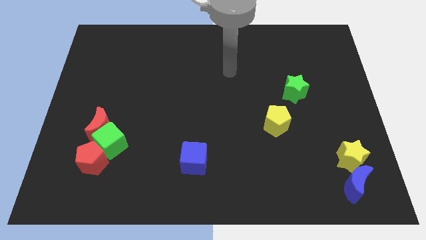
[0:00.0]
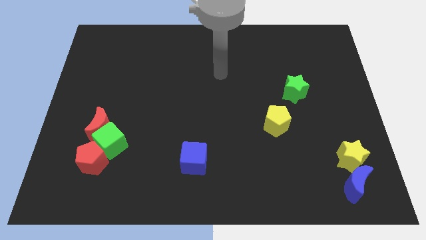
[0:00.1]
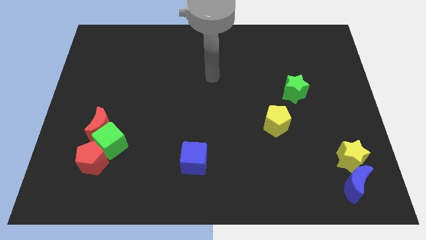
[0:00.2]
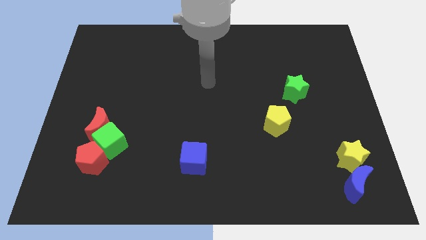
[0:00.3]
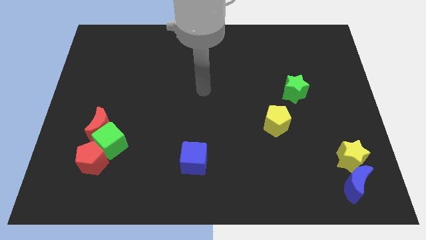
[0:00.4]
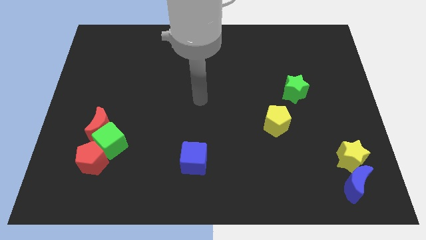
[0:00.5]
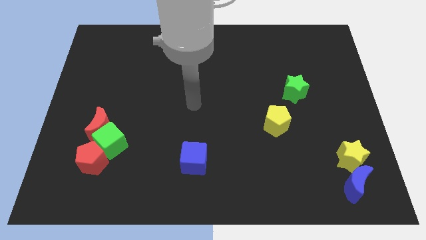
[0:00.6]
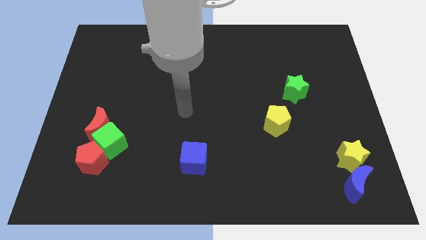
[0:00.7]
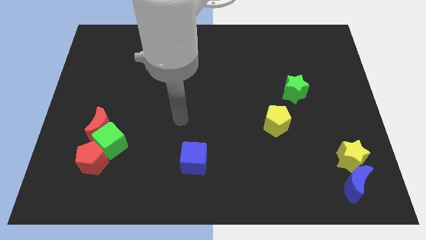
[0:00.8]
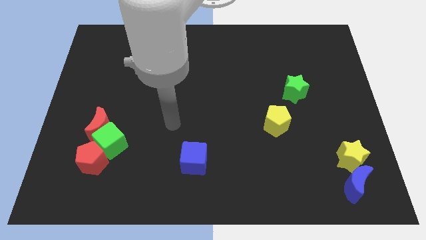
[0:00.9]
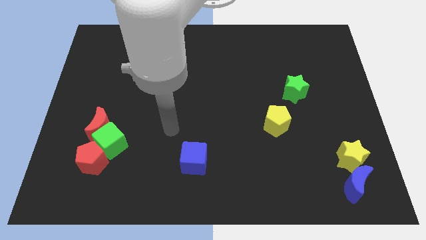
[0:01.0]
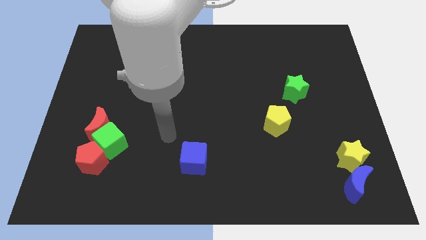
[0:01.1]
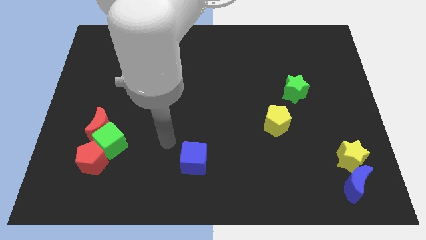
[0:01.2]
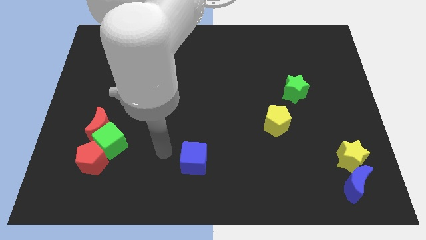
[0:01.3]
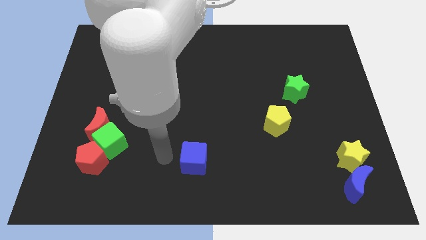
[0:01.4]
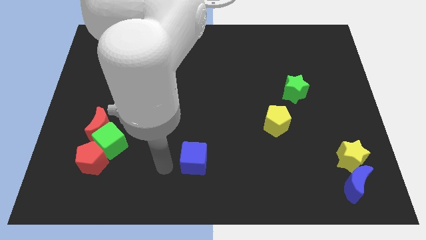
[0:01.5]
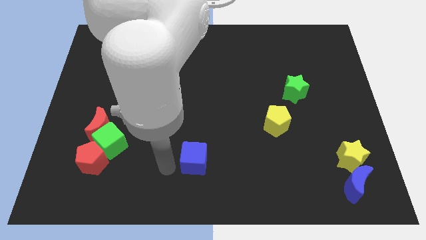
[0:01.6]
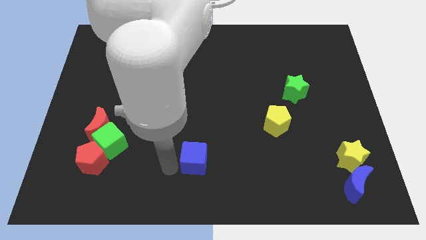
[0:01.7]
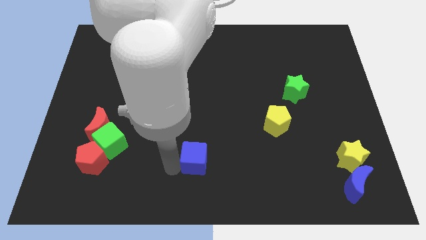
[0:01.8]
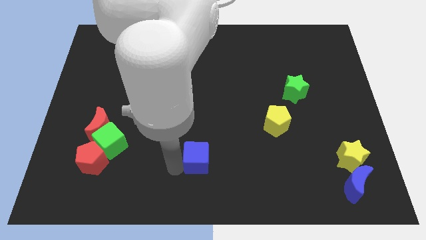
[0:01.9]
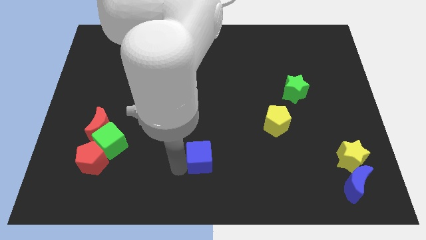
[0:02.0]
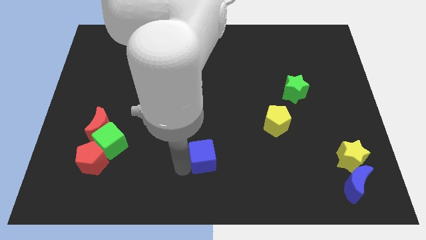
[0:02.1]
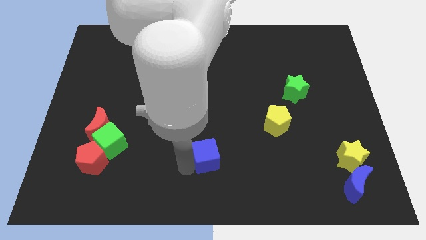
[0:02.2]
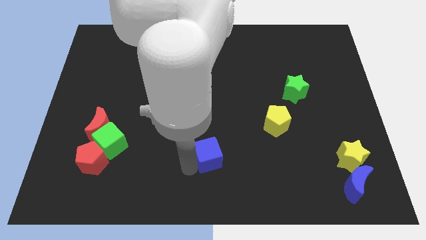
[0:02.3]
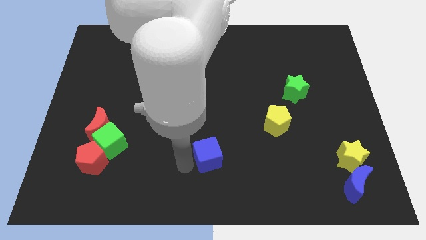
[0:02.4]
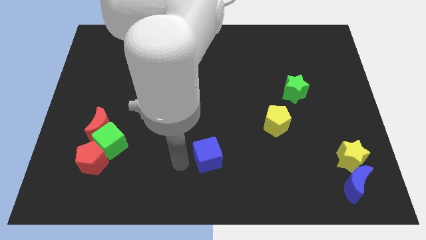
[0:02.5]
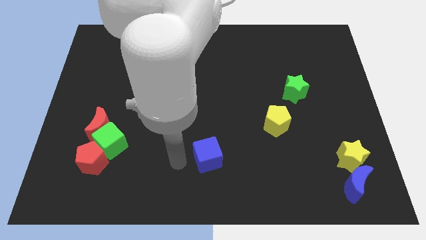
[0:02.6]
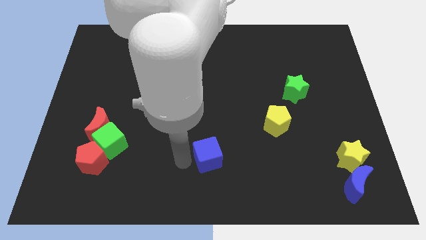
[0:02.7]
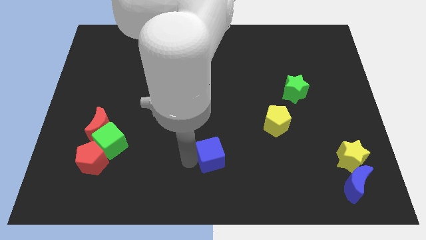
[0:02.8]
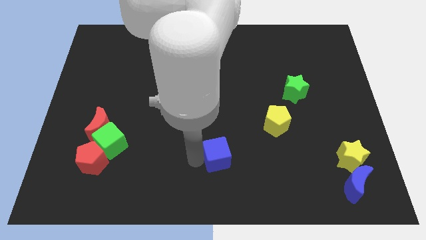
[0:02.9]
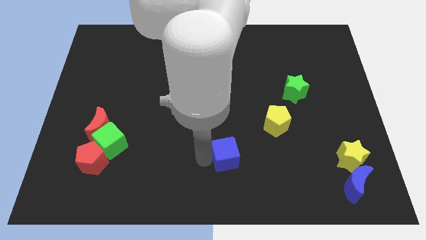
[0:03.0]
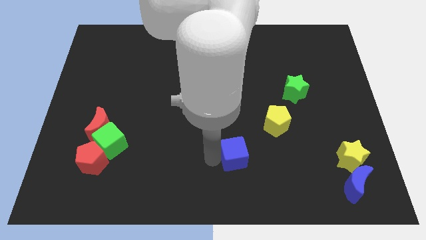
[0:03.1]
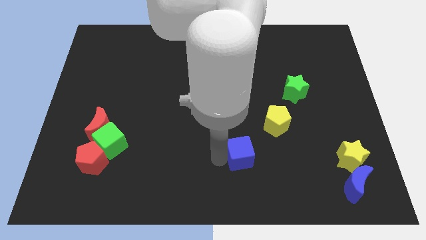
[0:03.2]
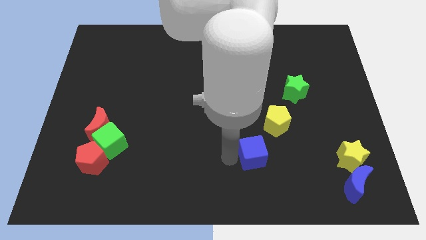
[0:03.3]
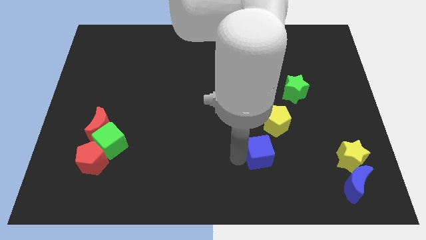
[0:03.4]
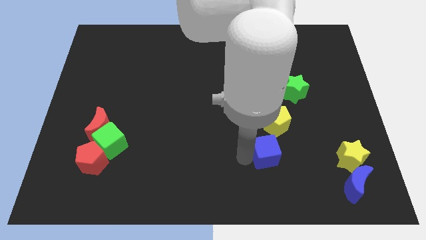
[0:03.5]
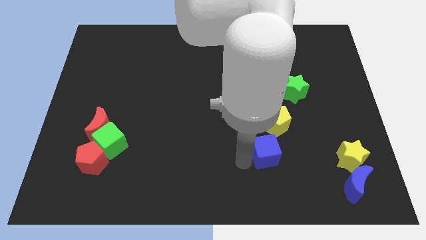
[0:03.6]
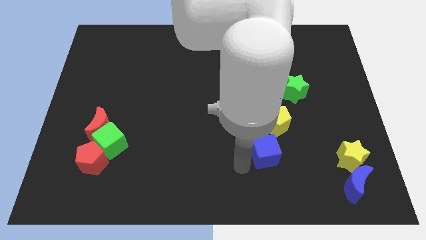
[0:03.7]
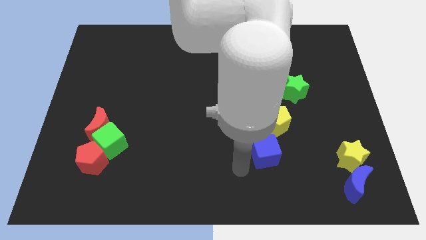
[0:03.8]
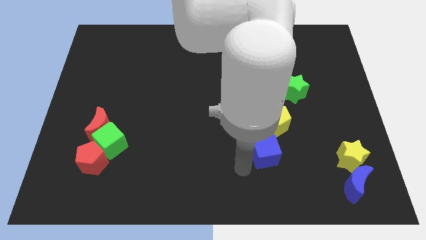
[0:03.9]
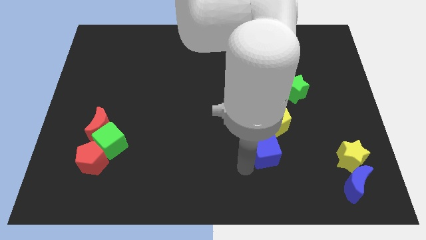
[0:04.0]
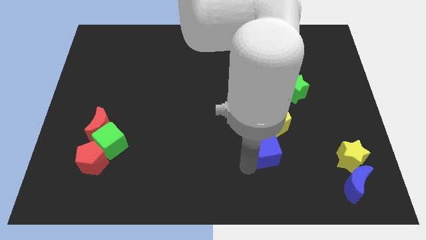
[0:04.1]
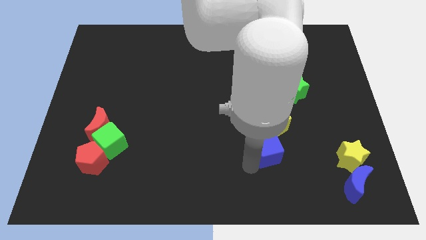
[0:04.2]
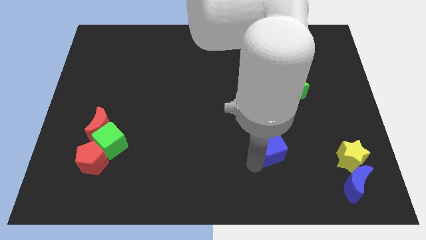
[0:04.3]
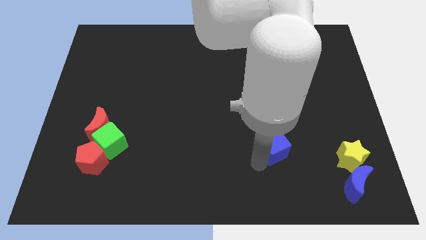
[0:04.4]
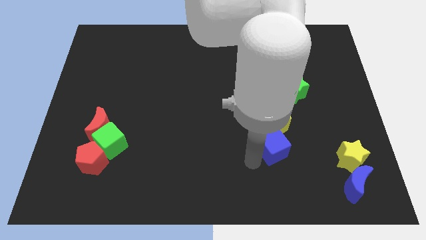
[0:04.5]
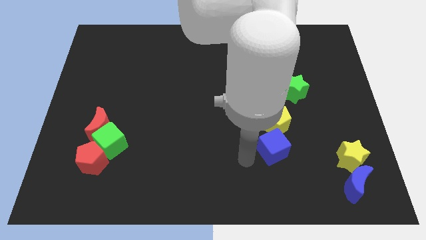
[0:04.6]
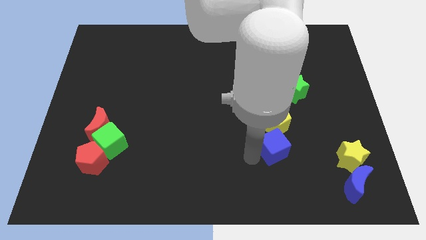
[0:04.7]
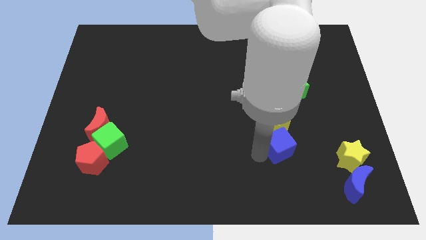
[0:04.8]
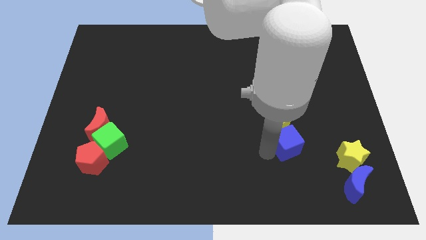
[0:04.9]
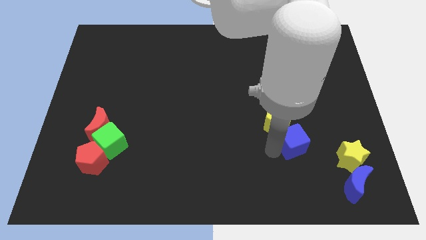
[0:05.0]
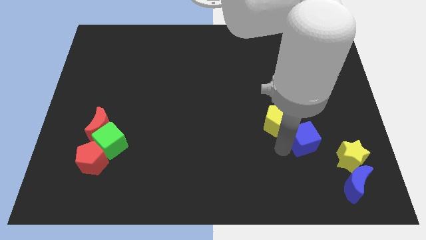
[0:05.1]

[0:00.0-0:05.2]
push the blue cube to the right of the yellow pentagon

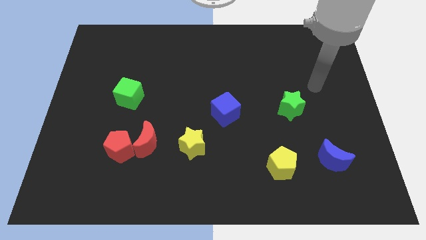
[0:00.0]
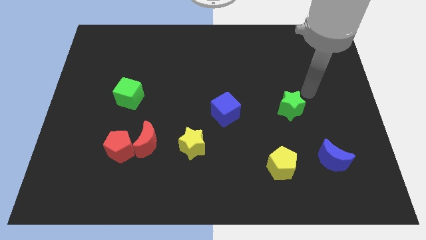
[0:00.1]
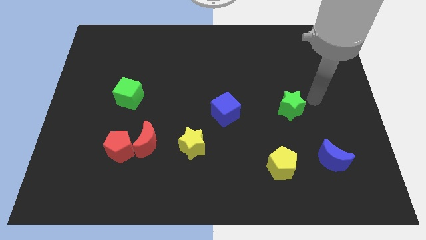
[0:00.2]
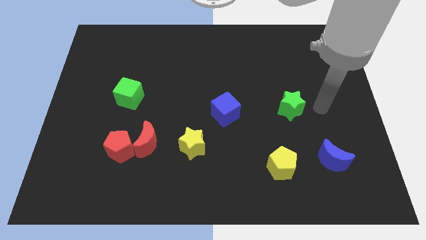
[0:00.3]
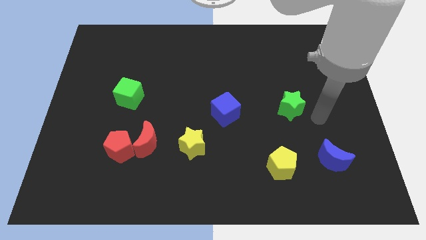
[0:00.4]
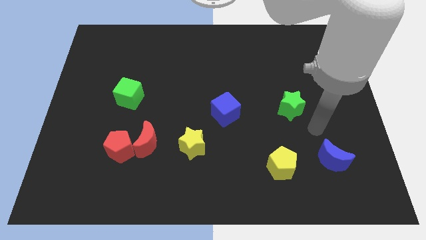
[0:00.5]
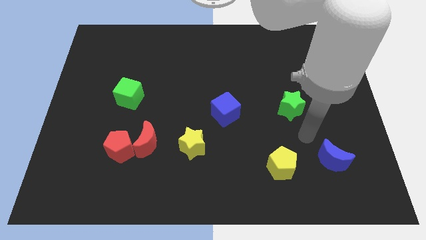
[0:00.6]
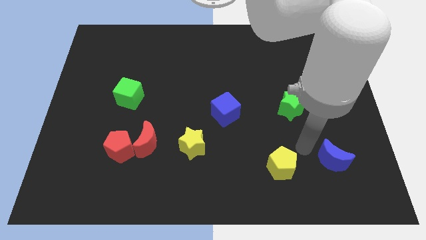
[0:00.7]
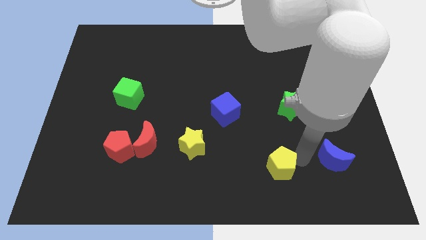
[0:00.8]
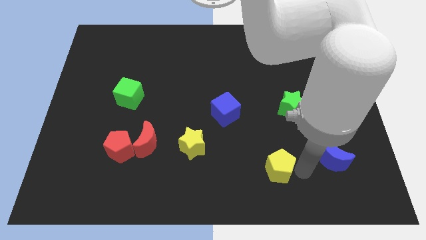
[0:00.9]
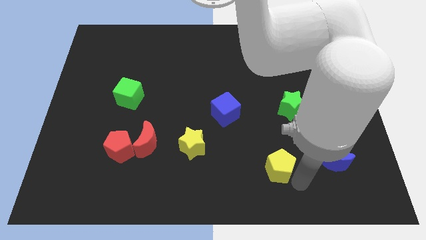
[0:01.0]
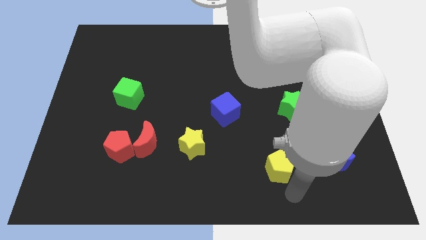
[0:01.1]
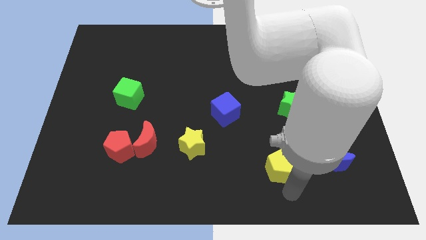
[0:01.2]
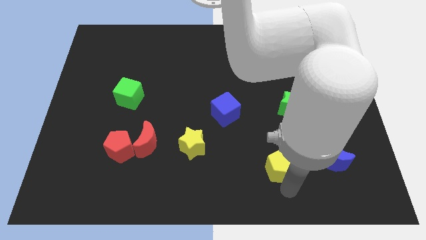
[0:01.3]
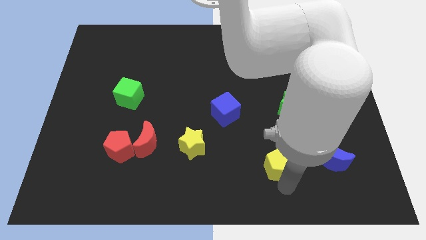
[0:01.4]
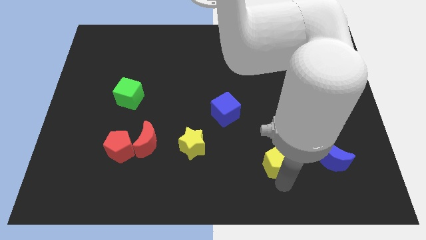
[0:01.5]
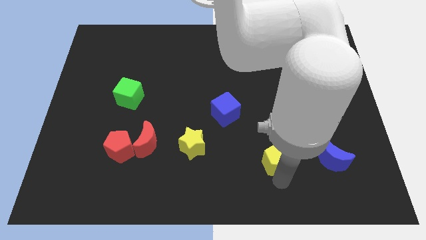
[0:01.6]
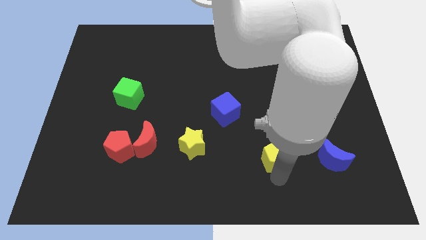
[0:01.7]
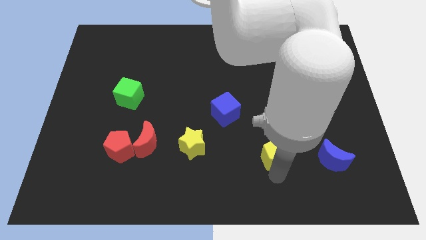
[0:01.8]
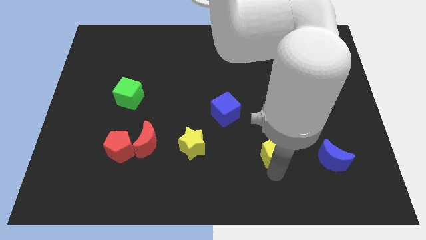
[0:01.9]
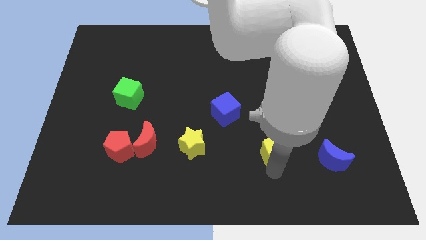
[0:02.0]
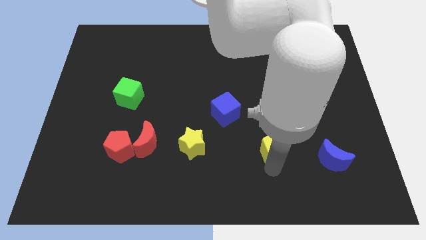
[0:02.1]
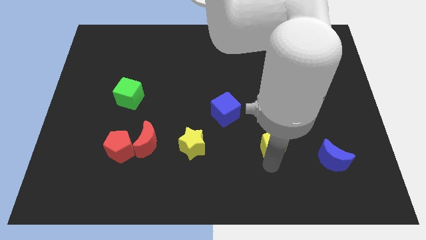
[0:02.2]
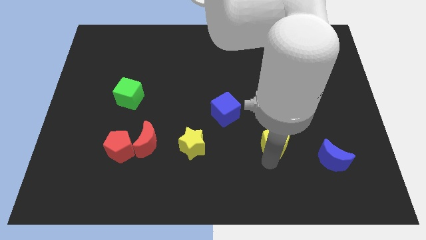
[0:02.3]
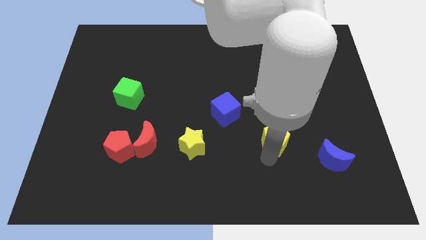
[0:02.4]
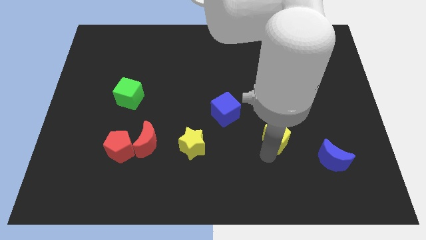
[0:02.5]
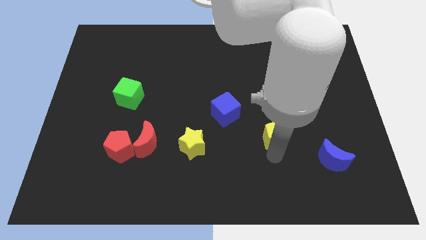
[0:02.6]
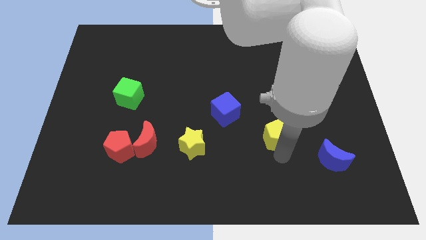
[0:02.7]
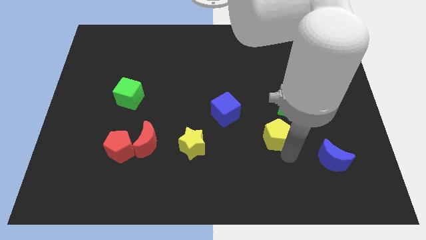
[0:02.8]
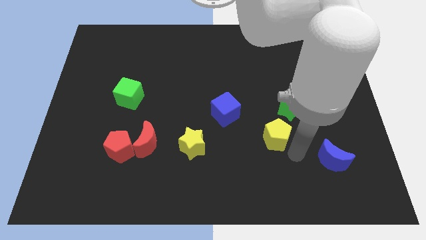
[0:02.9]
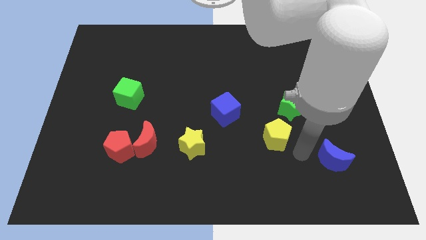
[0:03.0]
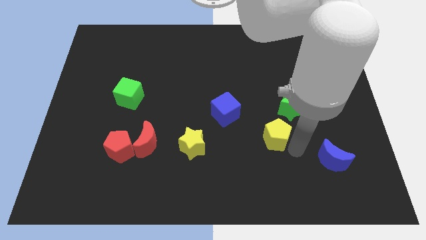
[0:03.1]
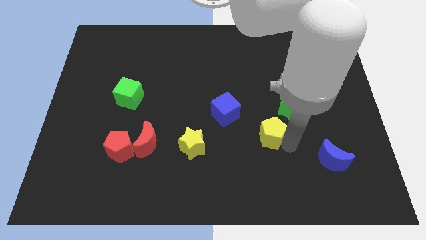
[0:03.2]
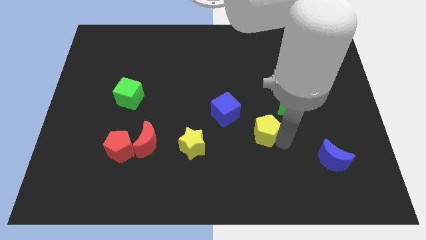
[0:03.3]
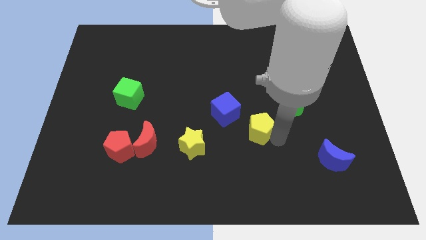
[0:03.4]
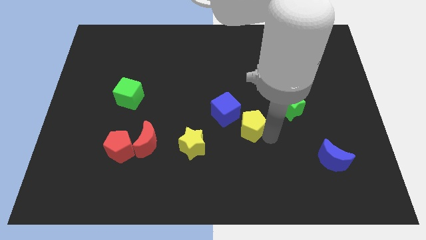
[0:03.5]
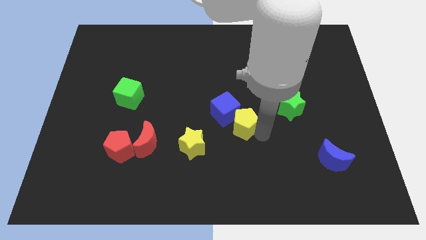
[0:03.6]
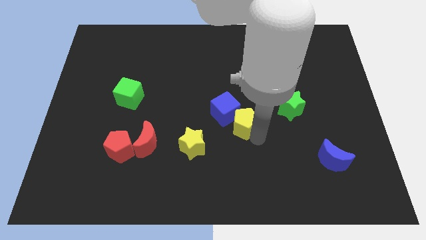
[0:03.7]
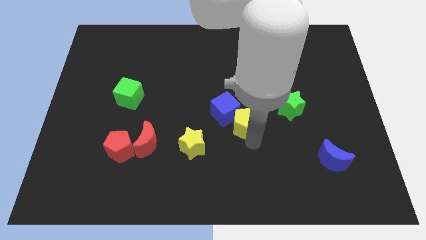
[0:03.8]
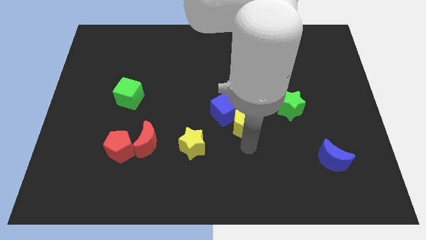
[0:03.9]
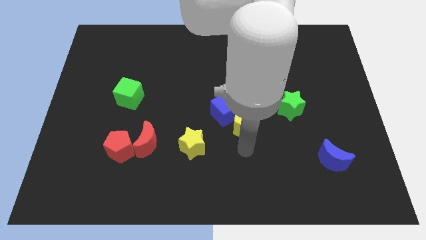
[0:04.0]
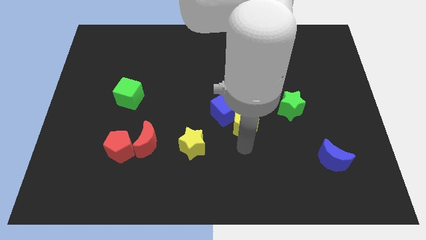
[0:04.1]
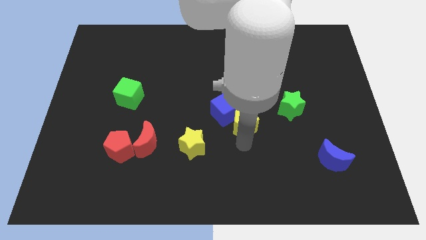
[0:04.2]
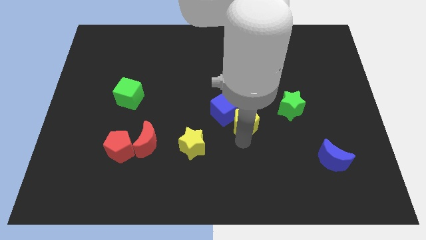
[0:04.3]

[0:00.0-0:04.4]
push the yellow pentagon to the left side of the green star
